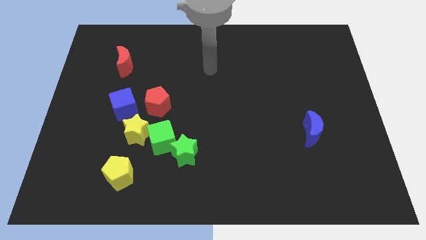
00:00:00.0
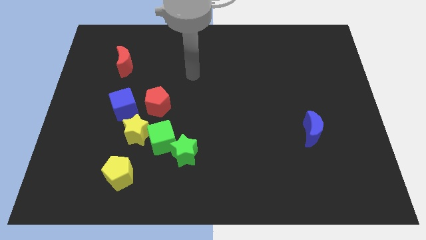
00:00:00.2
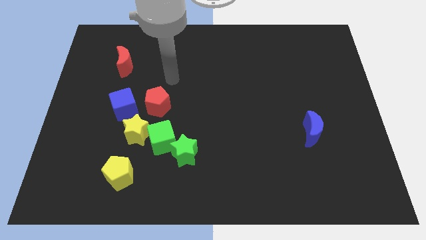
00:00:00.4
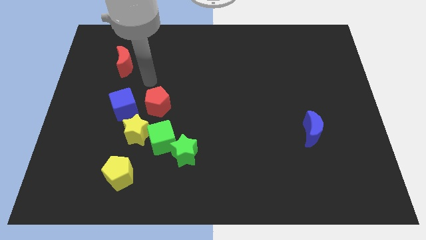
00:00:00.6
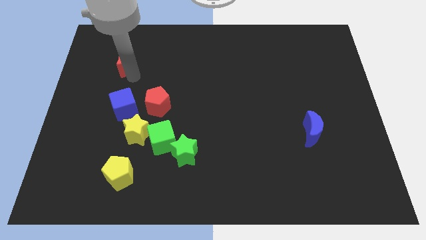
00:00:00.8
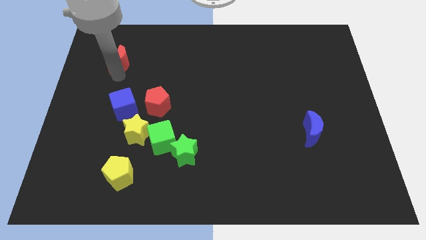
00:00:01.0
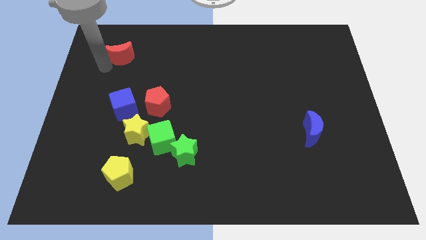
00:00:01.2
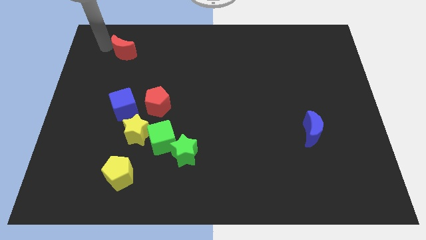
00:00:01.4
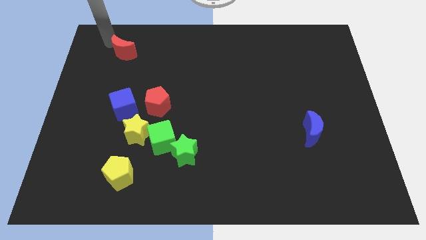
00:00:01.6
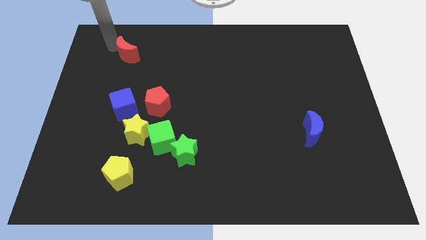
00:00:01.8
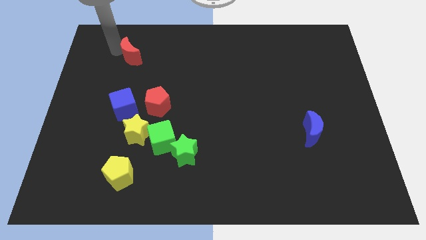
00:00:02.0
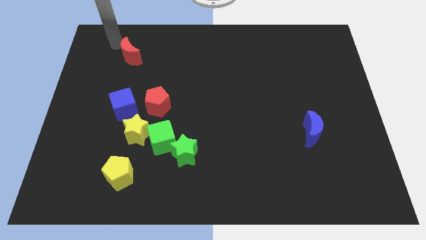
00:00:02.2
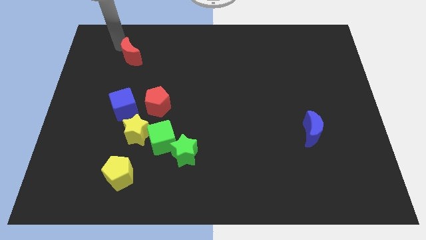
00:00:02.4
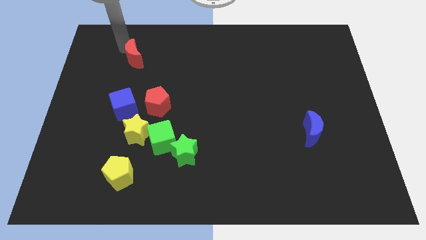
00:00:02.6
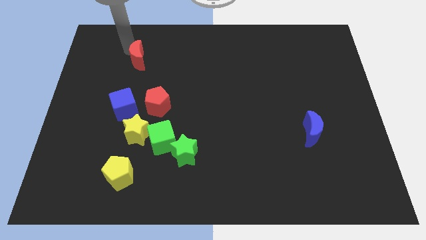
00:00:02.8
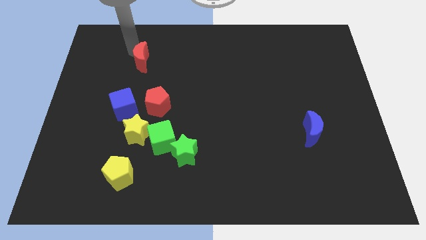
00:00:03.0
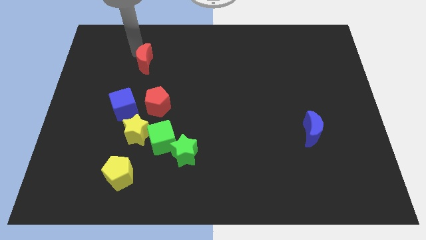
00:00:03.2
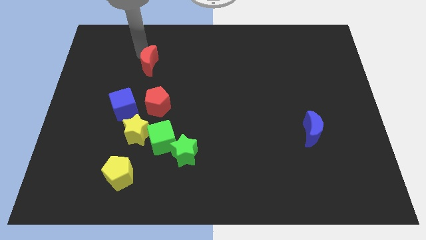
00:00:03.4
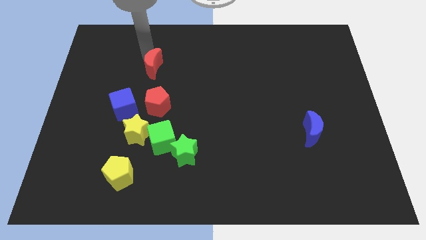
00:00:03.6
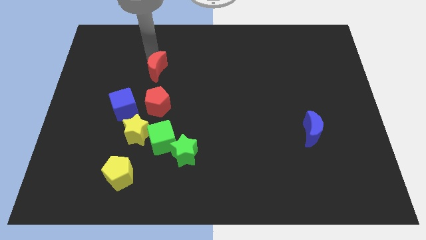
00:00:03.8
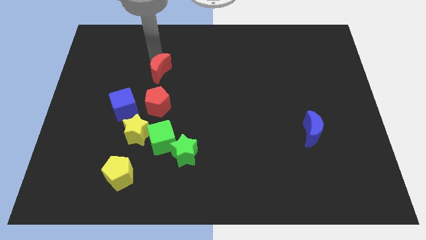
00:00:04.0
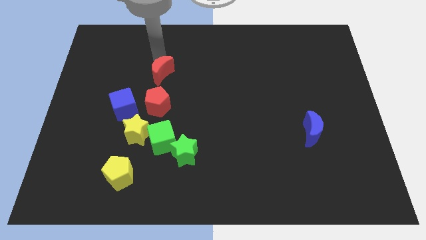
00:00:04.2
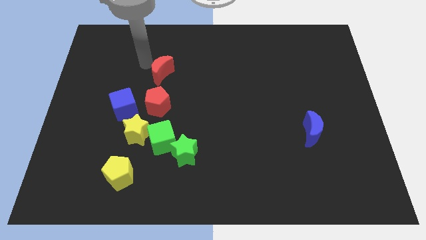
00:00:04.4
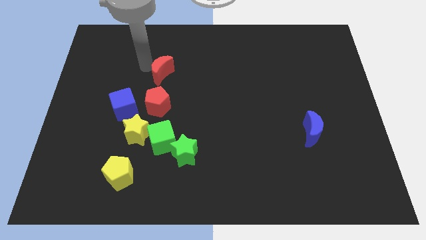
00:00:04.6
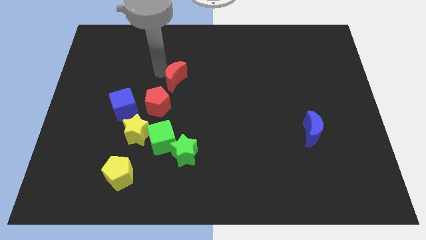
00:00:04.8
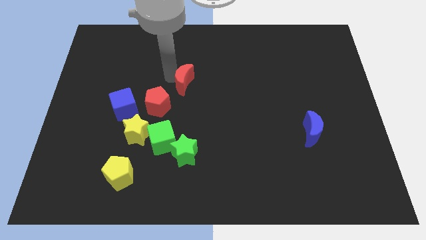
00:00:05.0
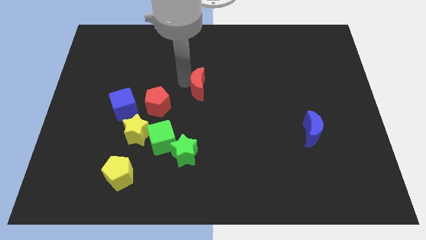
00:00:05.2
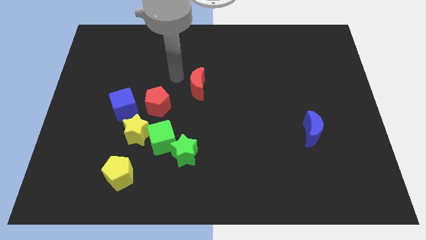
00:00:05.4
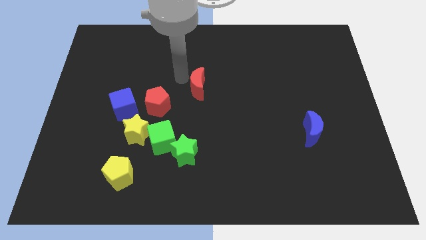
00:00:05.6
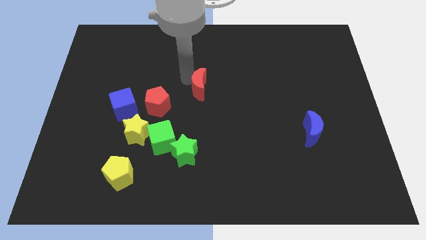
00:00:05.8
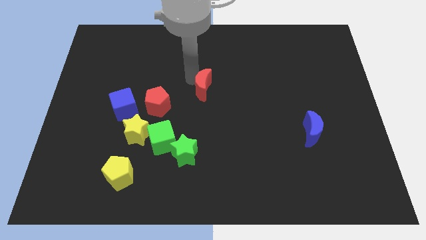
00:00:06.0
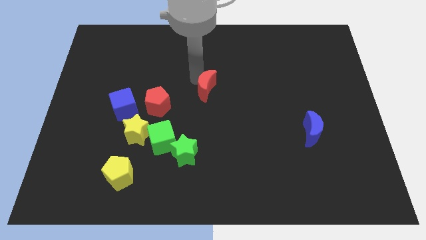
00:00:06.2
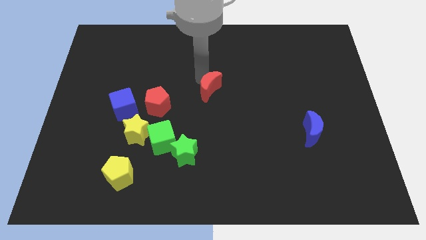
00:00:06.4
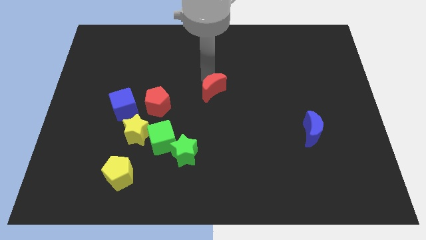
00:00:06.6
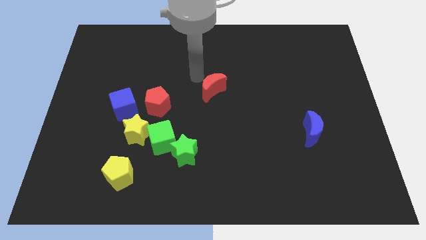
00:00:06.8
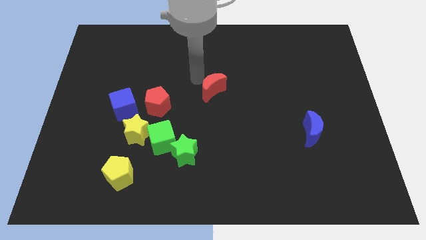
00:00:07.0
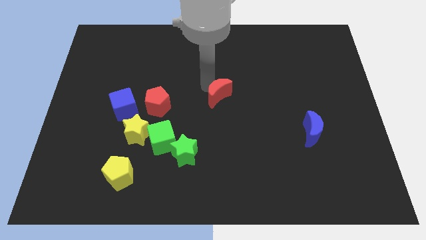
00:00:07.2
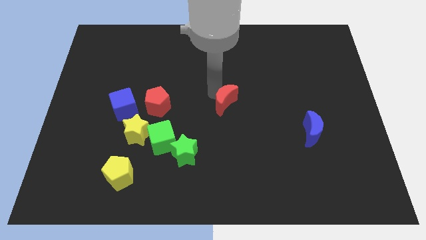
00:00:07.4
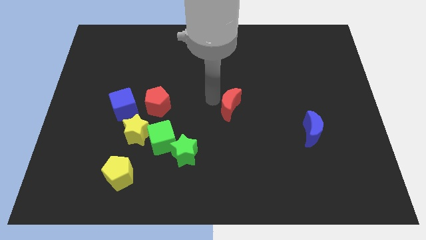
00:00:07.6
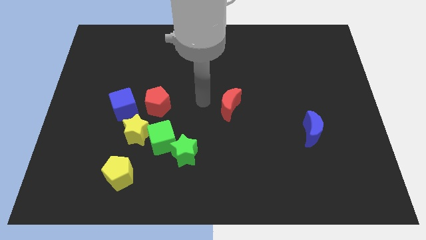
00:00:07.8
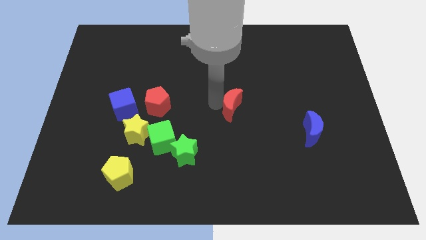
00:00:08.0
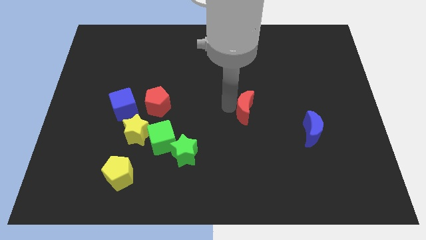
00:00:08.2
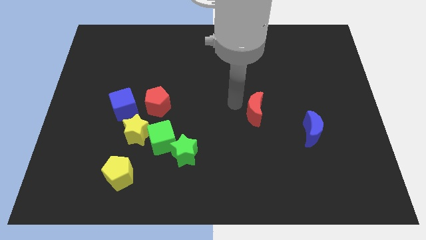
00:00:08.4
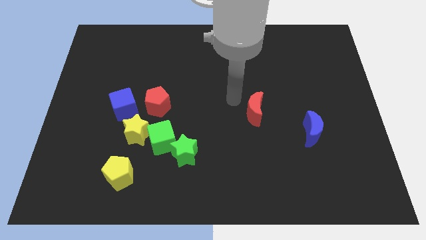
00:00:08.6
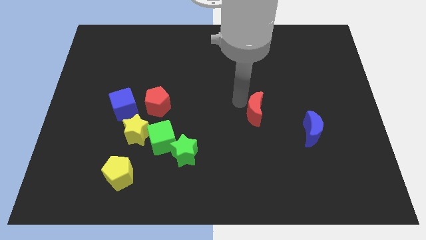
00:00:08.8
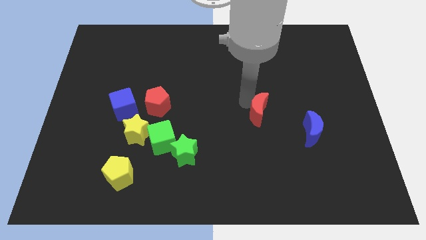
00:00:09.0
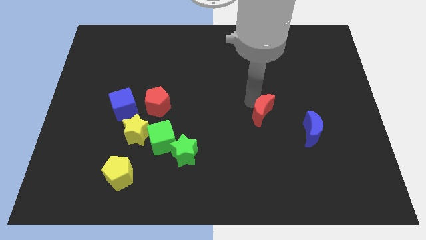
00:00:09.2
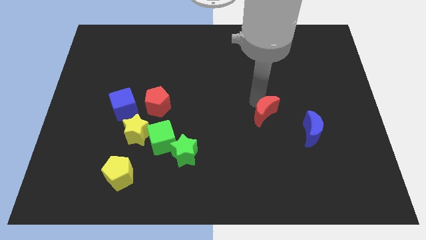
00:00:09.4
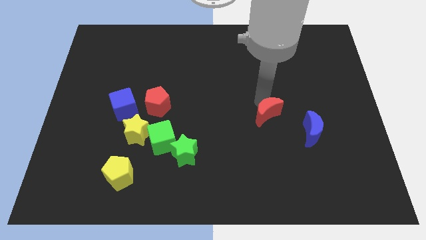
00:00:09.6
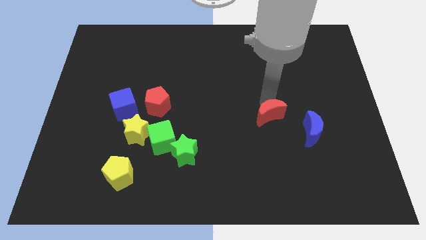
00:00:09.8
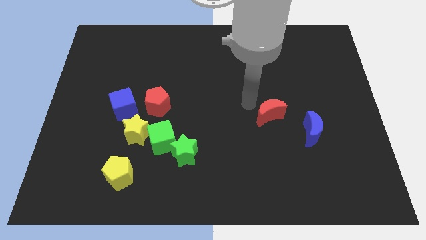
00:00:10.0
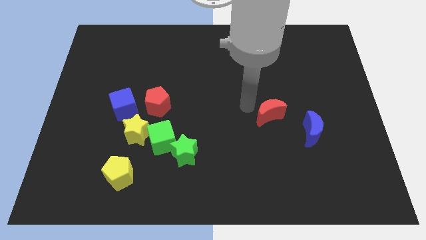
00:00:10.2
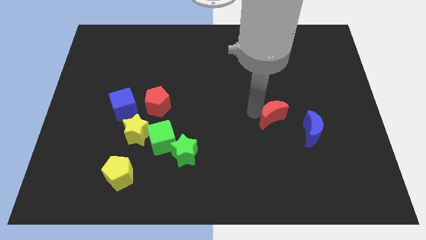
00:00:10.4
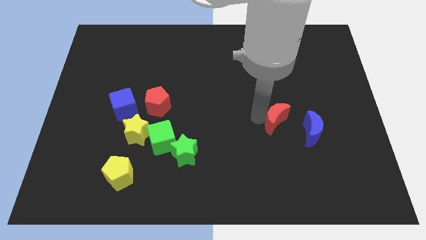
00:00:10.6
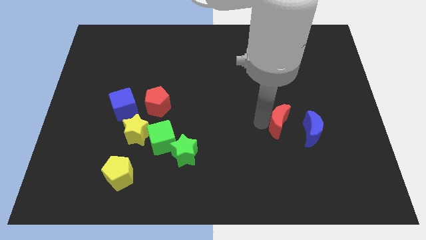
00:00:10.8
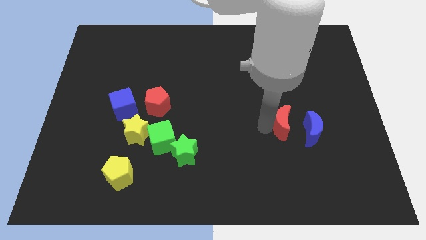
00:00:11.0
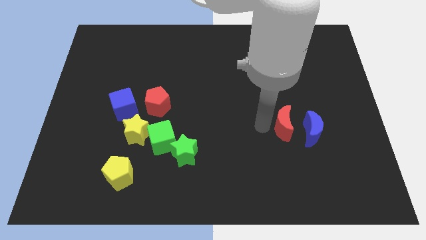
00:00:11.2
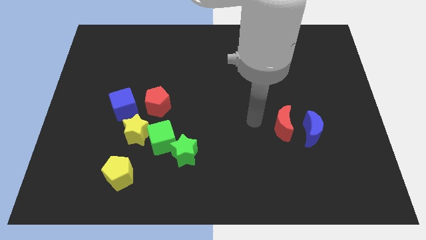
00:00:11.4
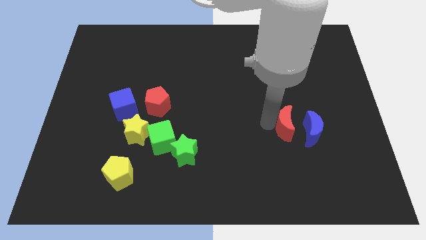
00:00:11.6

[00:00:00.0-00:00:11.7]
move the red moon close to the blue moon

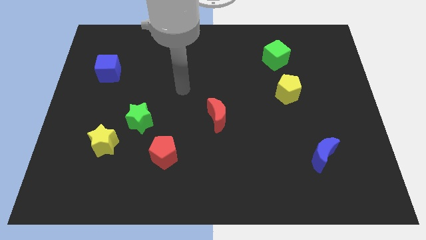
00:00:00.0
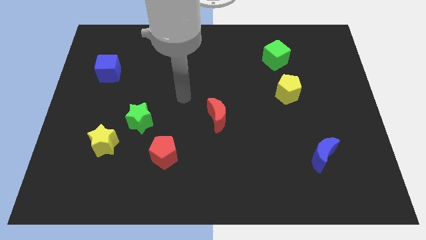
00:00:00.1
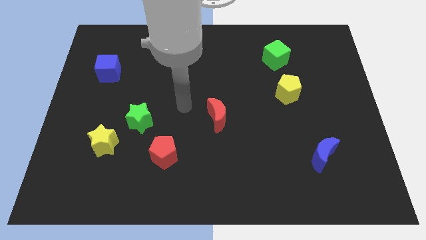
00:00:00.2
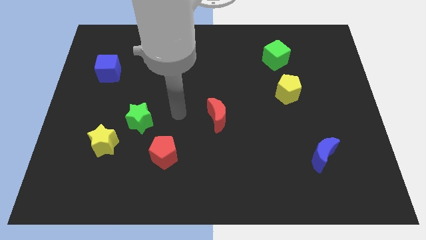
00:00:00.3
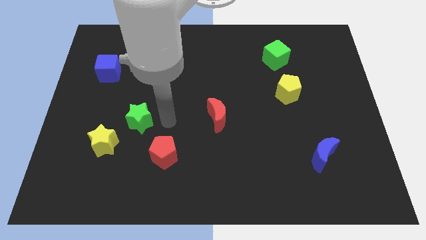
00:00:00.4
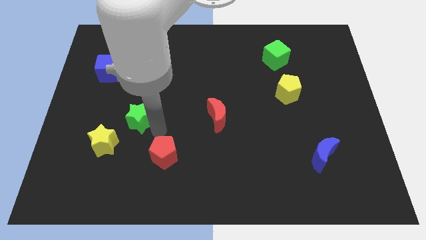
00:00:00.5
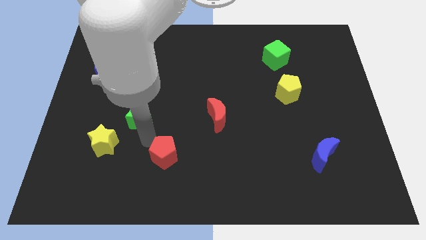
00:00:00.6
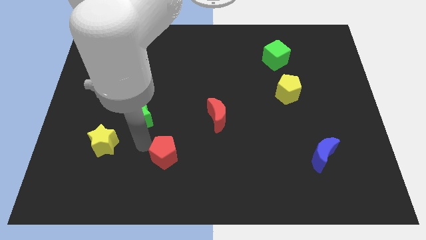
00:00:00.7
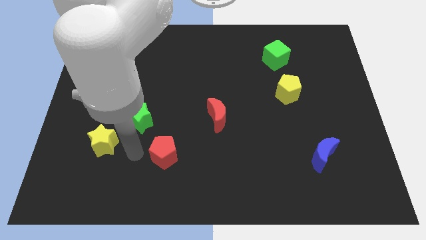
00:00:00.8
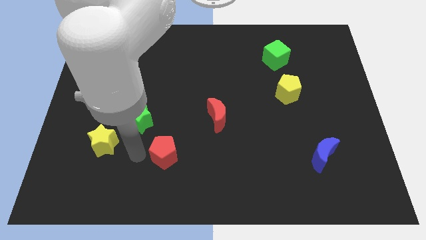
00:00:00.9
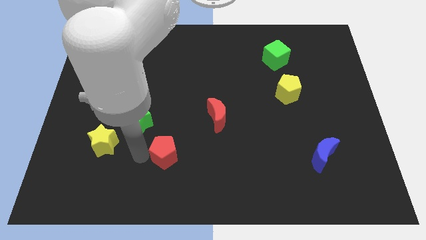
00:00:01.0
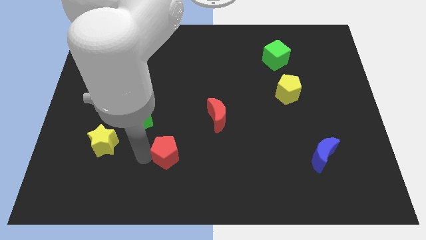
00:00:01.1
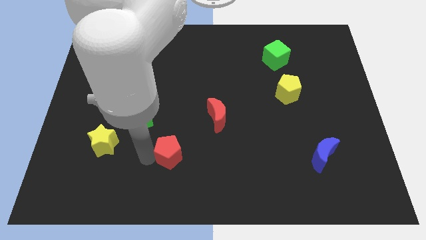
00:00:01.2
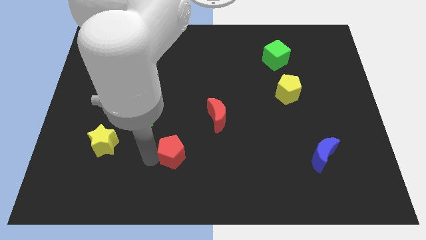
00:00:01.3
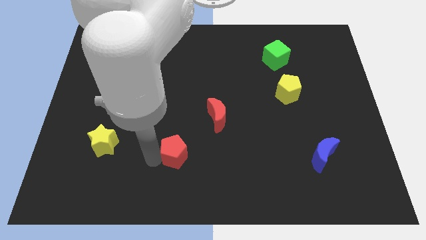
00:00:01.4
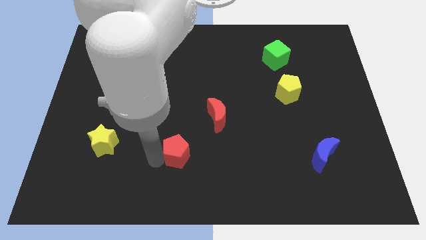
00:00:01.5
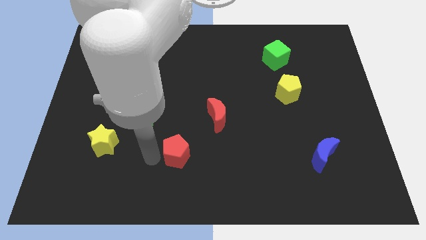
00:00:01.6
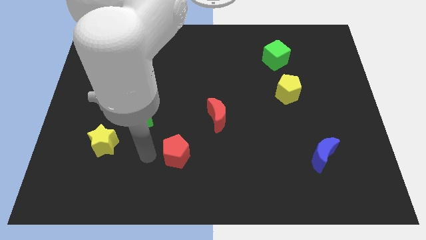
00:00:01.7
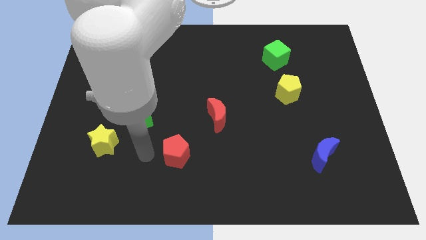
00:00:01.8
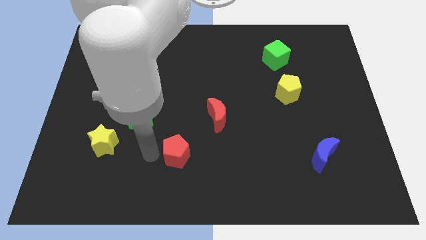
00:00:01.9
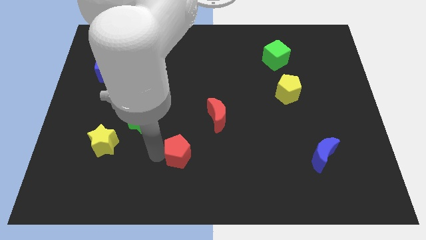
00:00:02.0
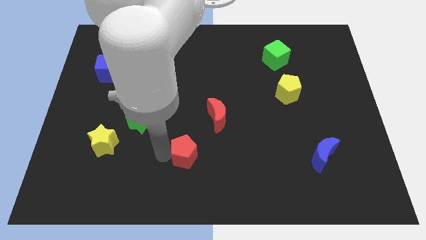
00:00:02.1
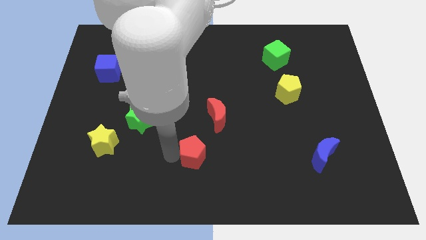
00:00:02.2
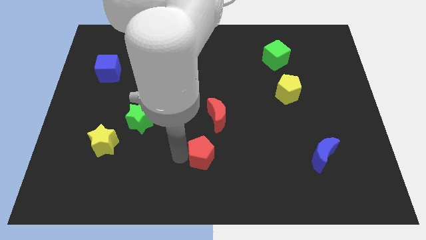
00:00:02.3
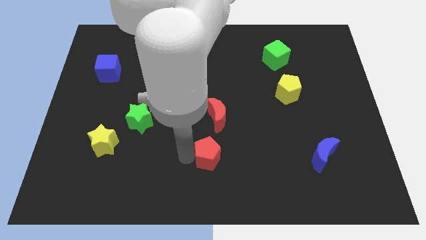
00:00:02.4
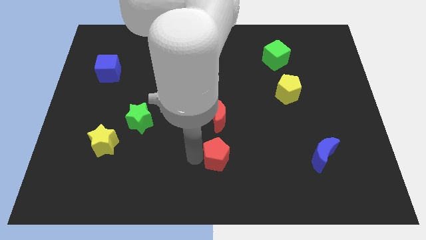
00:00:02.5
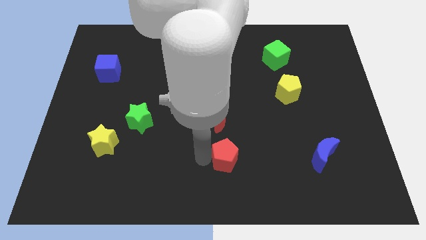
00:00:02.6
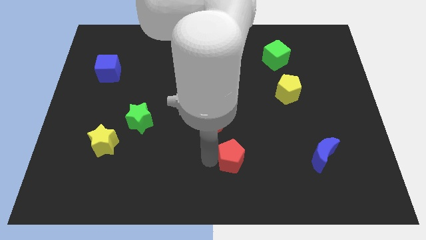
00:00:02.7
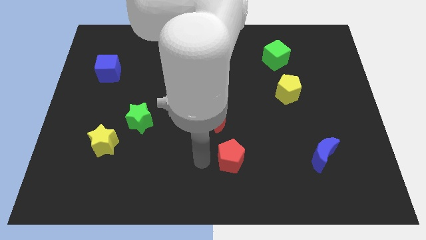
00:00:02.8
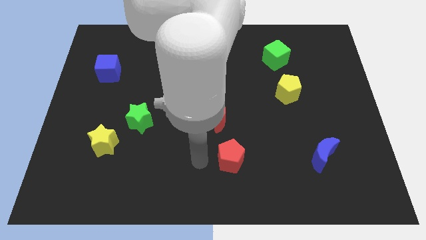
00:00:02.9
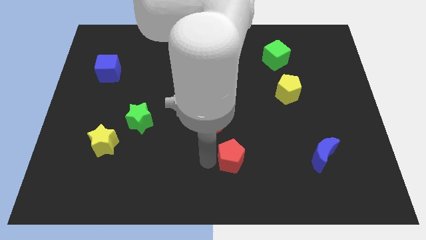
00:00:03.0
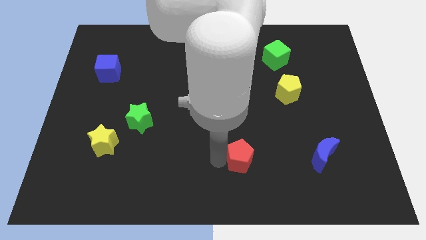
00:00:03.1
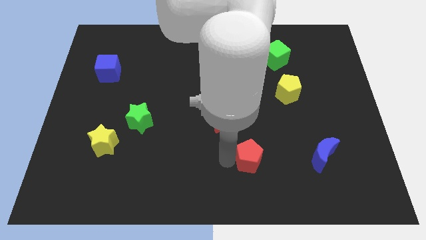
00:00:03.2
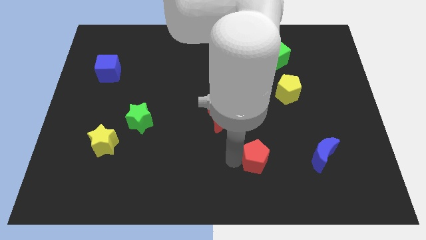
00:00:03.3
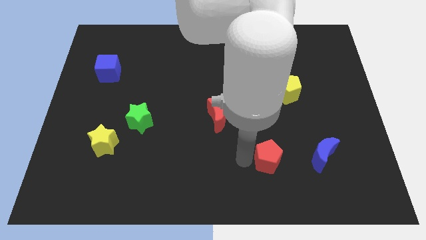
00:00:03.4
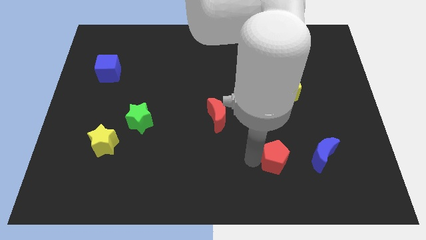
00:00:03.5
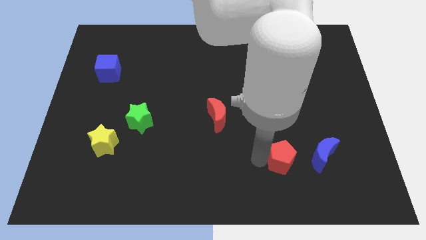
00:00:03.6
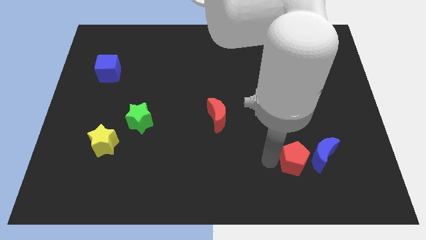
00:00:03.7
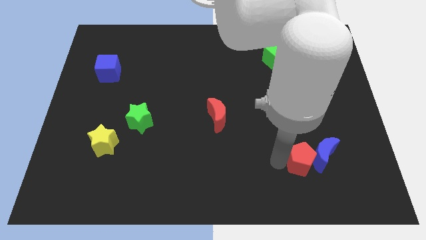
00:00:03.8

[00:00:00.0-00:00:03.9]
slide the red pentagon next to the blue moon
